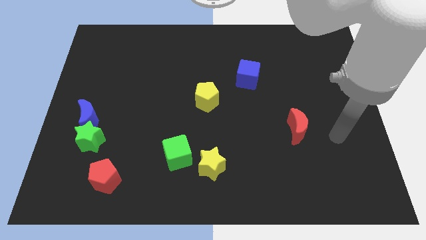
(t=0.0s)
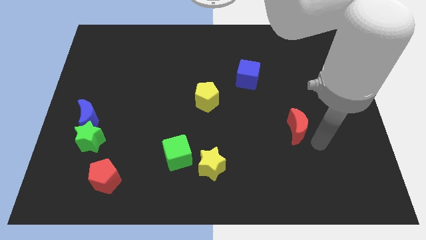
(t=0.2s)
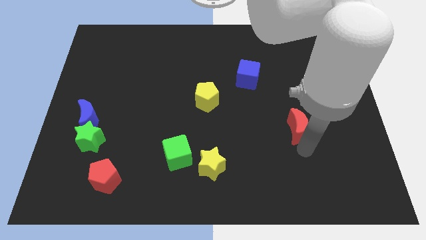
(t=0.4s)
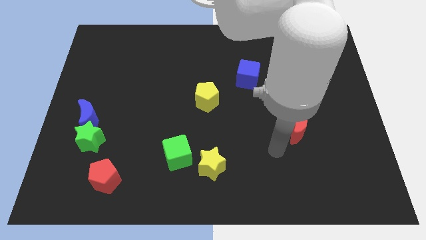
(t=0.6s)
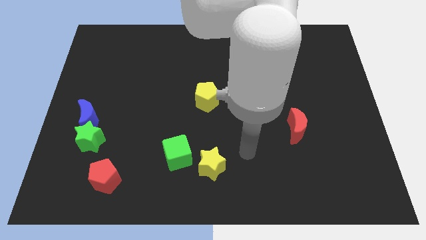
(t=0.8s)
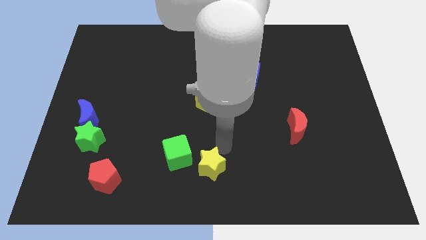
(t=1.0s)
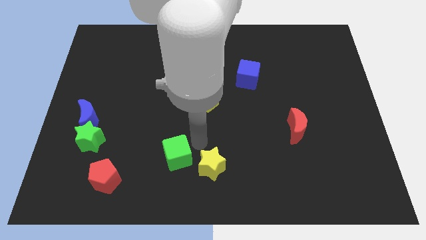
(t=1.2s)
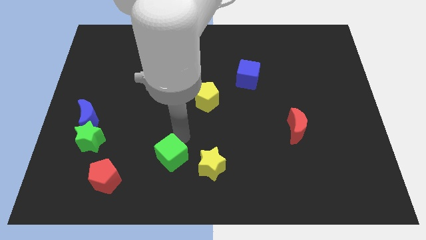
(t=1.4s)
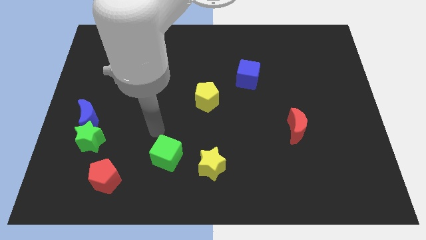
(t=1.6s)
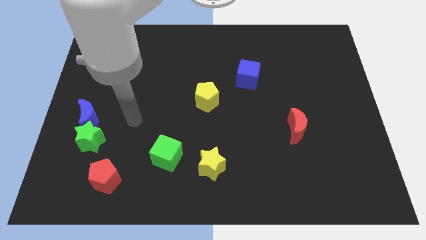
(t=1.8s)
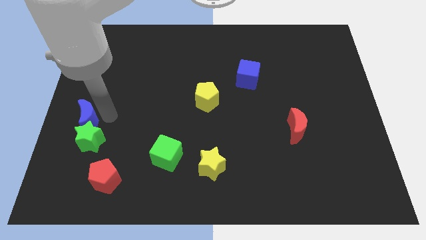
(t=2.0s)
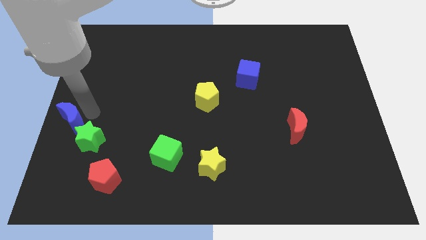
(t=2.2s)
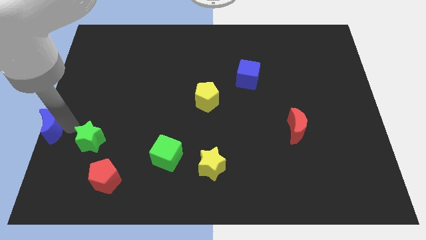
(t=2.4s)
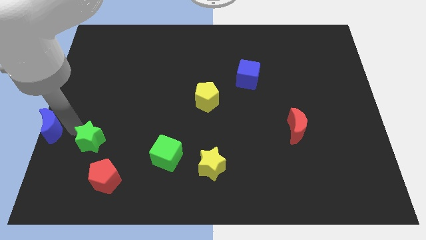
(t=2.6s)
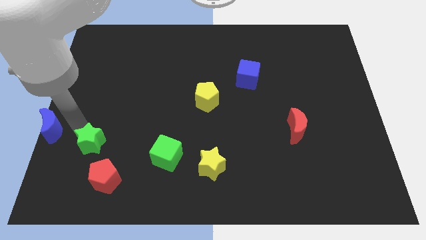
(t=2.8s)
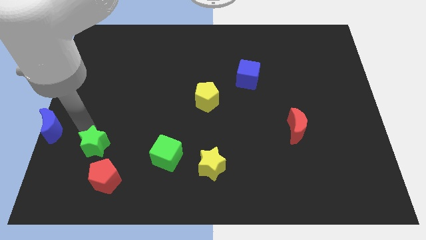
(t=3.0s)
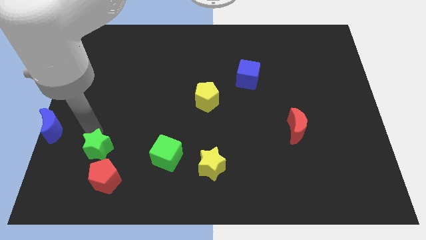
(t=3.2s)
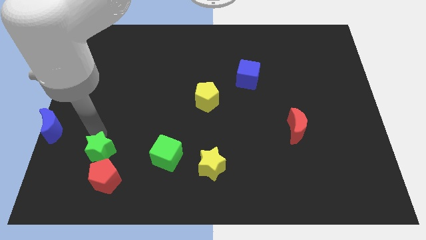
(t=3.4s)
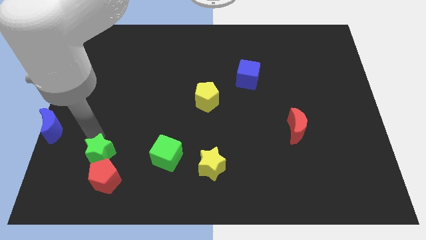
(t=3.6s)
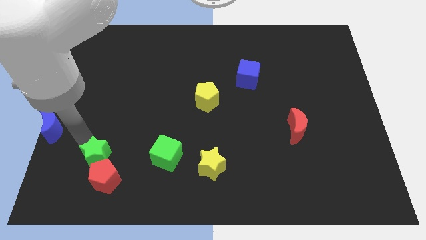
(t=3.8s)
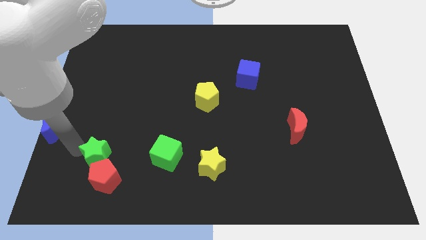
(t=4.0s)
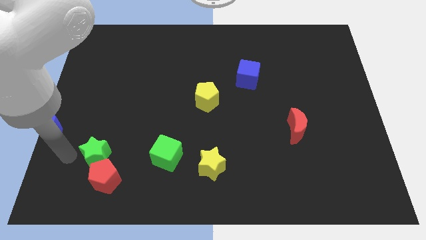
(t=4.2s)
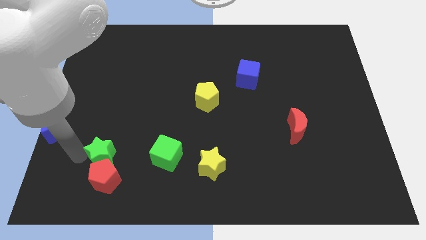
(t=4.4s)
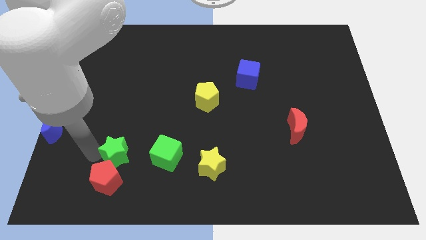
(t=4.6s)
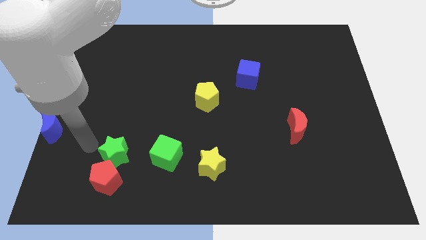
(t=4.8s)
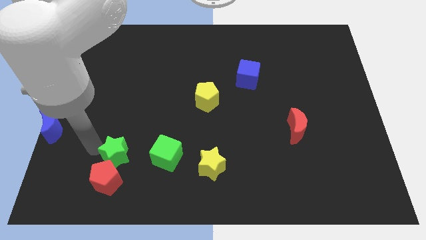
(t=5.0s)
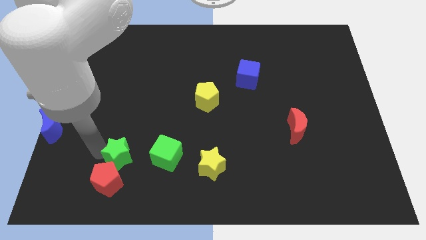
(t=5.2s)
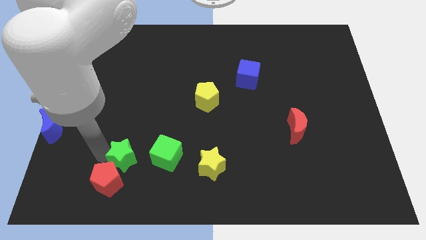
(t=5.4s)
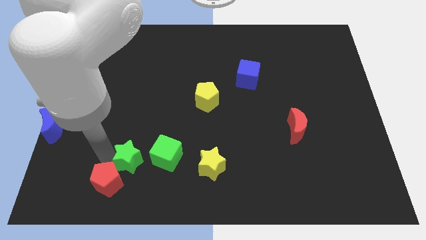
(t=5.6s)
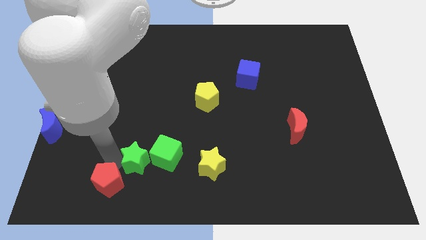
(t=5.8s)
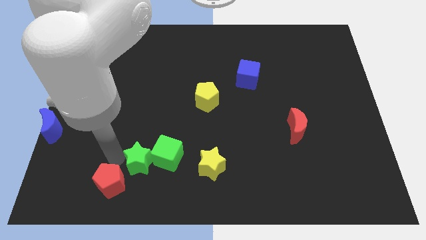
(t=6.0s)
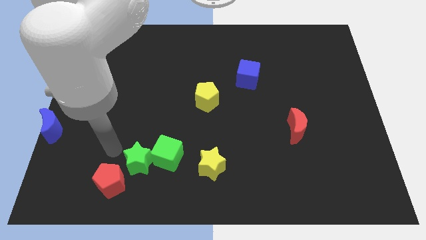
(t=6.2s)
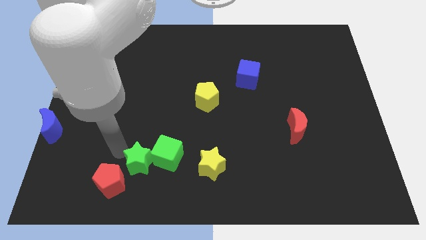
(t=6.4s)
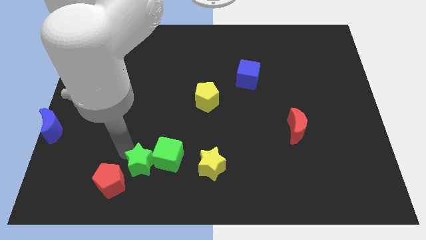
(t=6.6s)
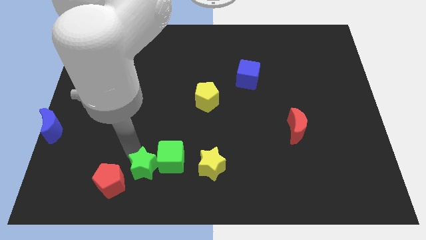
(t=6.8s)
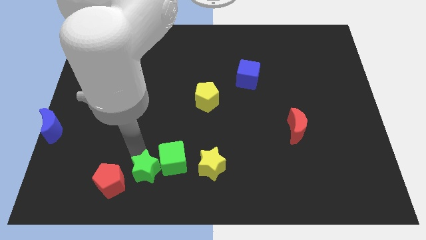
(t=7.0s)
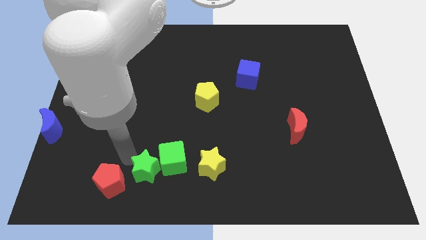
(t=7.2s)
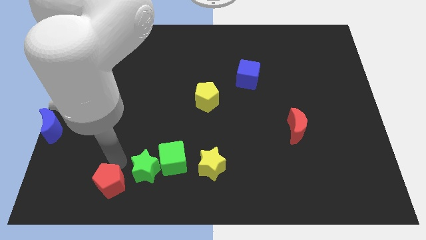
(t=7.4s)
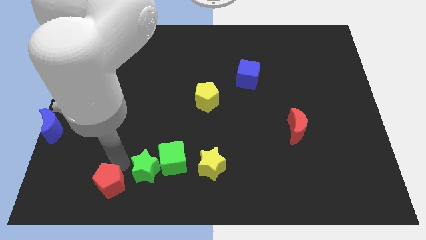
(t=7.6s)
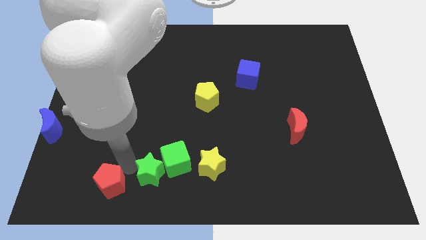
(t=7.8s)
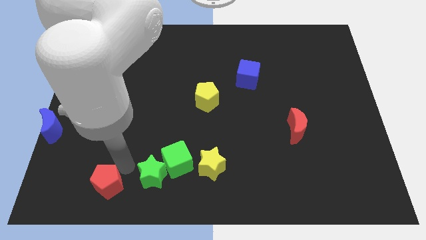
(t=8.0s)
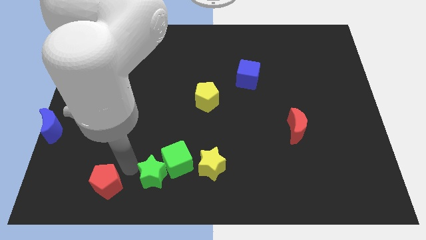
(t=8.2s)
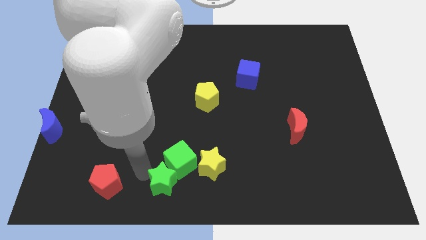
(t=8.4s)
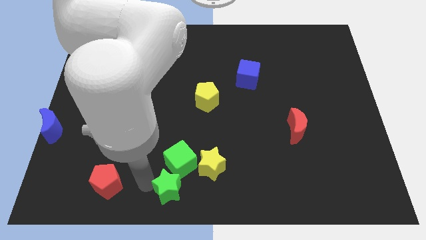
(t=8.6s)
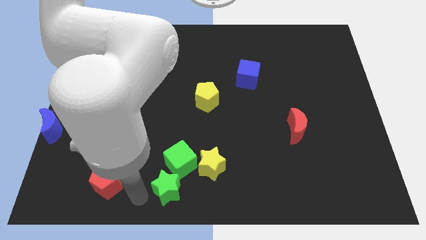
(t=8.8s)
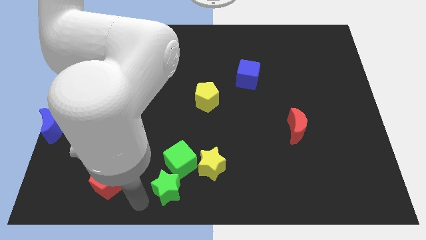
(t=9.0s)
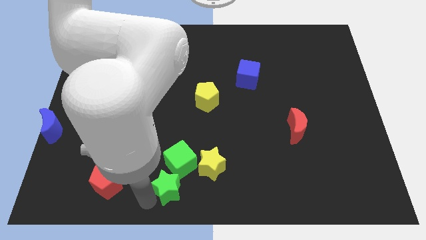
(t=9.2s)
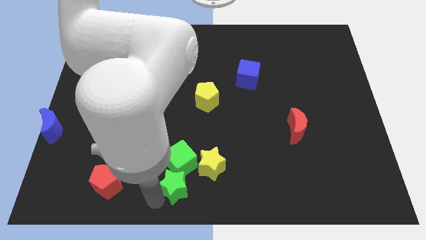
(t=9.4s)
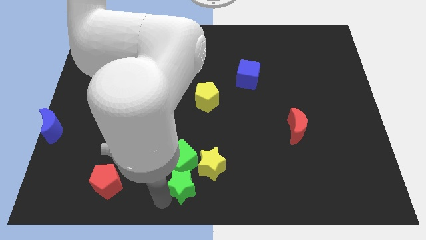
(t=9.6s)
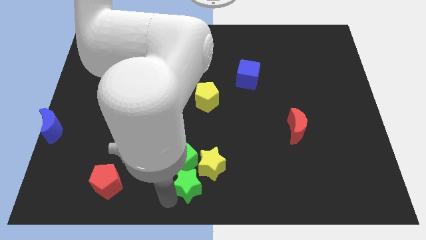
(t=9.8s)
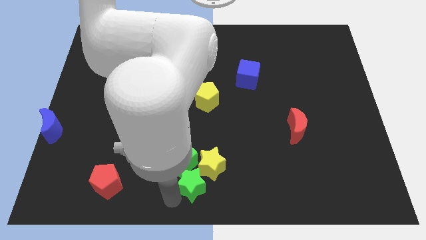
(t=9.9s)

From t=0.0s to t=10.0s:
put the green star close to the yellow star

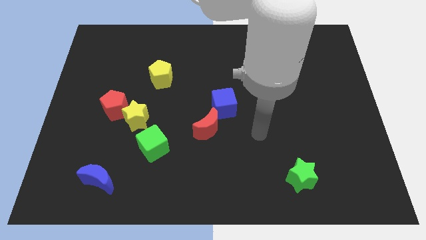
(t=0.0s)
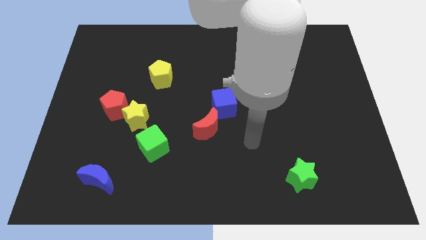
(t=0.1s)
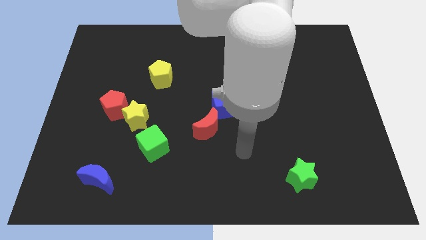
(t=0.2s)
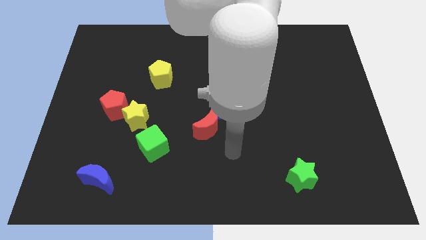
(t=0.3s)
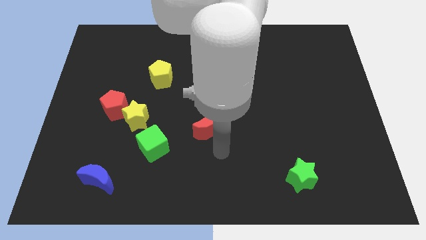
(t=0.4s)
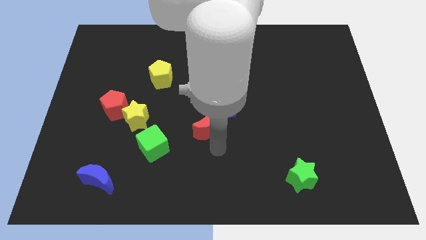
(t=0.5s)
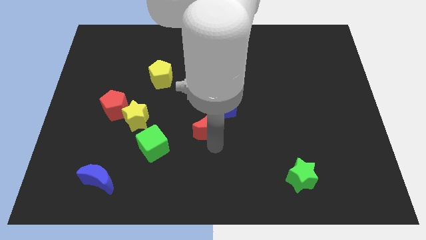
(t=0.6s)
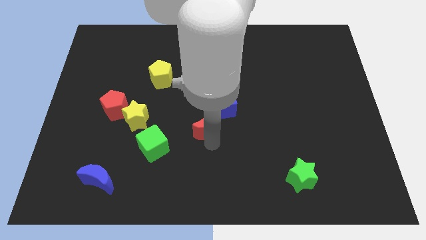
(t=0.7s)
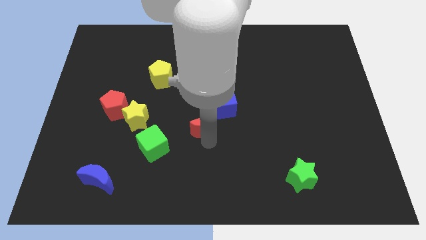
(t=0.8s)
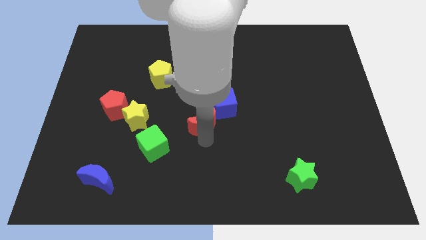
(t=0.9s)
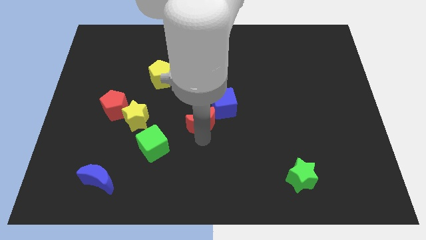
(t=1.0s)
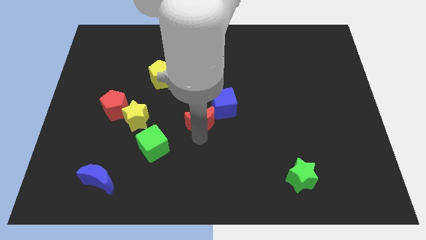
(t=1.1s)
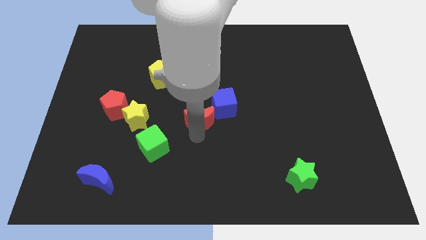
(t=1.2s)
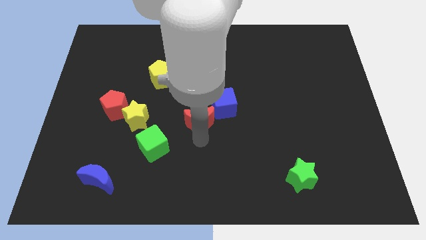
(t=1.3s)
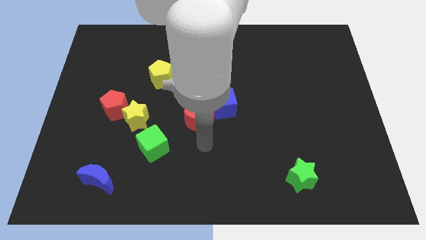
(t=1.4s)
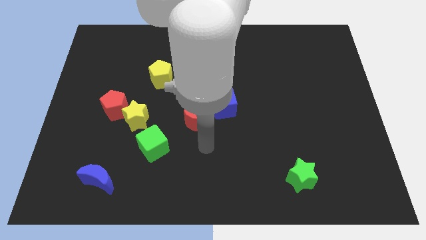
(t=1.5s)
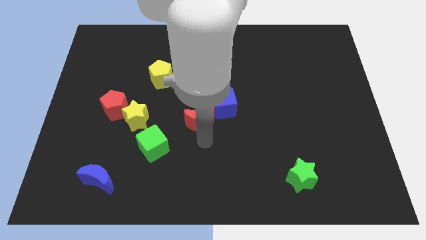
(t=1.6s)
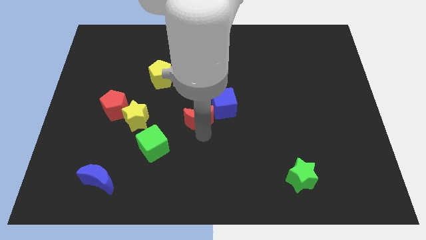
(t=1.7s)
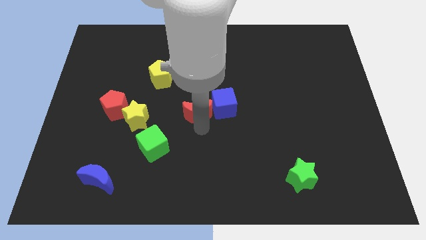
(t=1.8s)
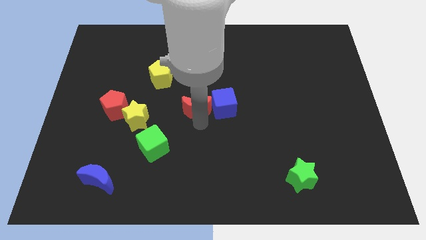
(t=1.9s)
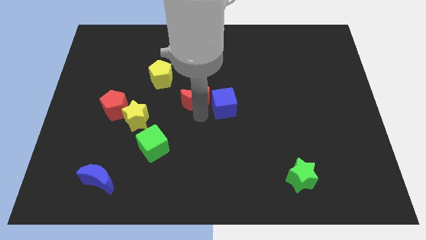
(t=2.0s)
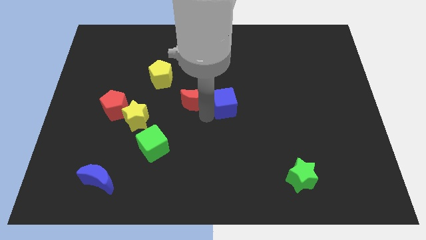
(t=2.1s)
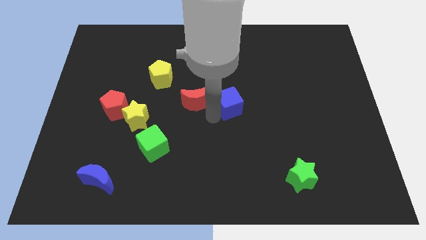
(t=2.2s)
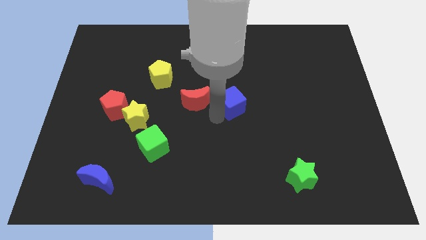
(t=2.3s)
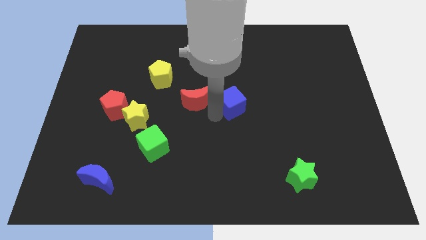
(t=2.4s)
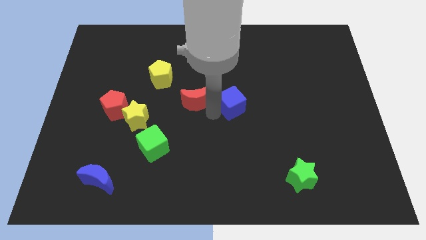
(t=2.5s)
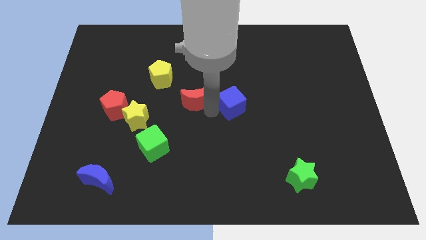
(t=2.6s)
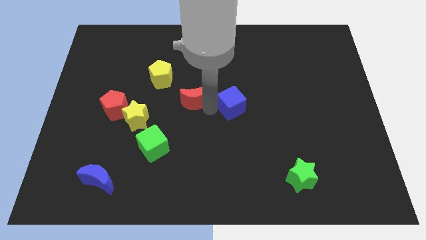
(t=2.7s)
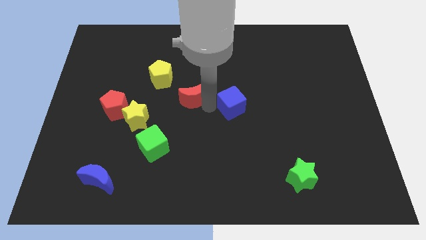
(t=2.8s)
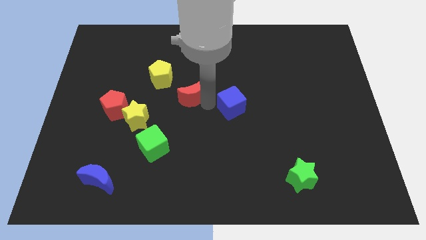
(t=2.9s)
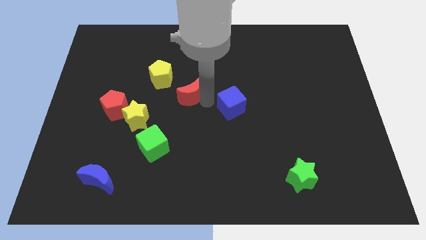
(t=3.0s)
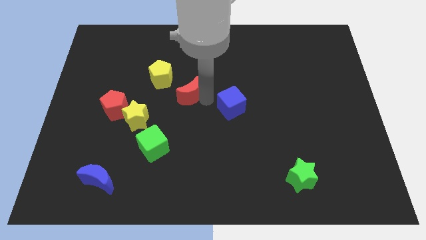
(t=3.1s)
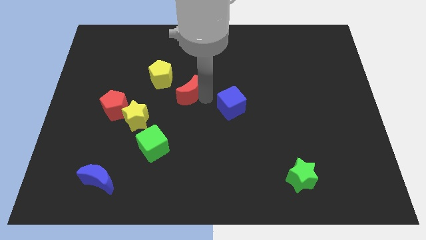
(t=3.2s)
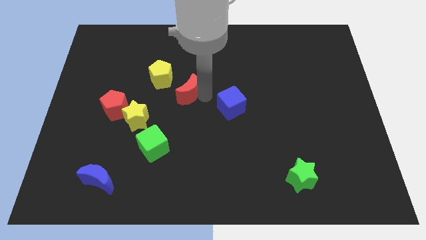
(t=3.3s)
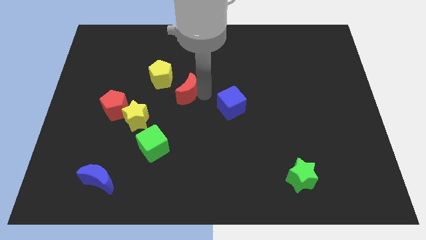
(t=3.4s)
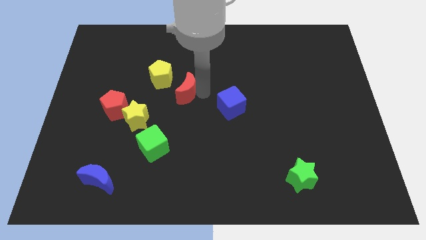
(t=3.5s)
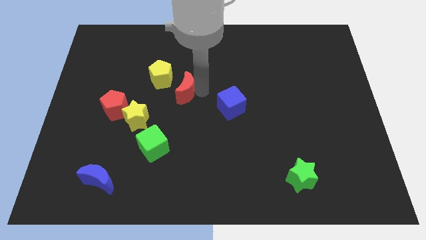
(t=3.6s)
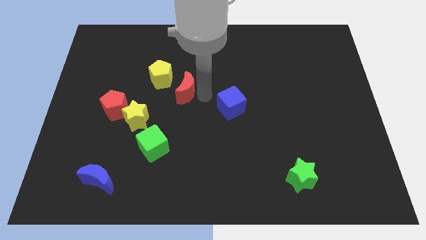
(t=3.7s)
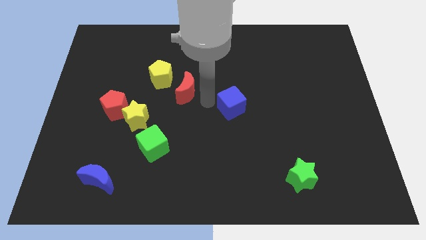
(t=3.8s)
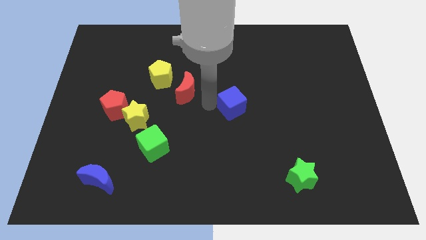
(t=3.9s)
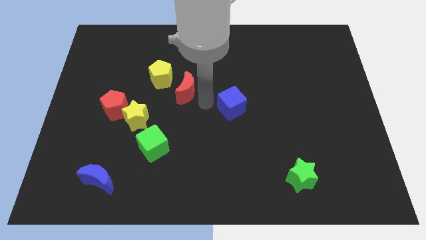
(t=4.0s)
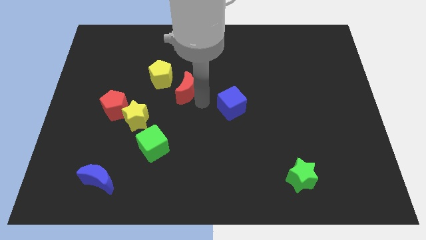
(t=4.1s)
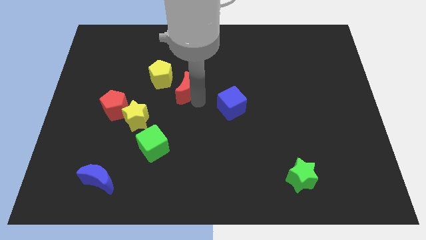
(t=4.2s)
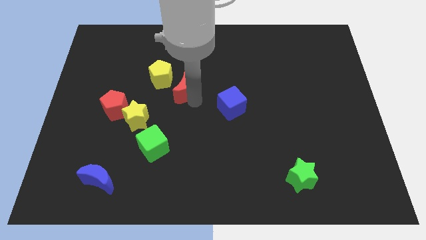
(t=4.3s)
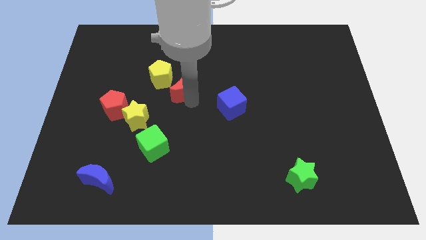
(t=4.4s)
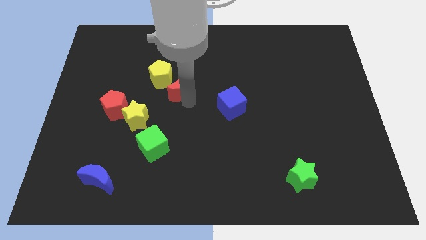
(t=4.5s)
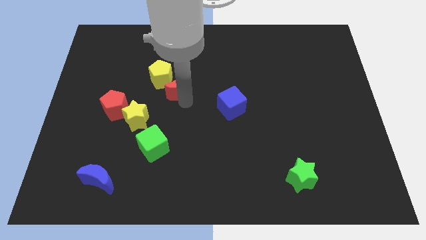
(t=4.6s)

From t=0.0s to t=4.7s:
move the red moon towards the yellow pentagon
